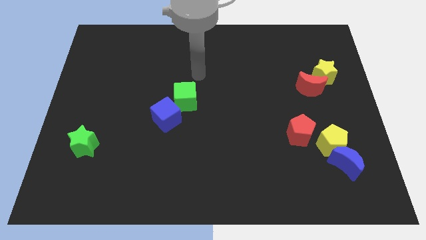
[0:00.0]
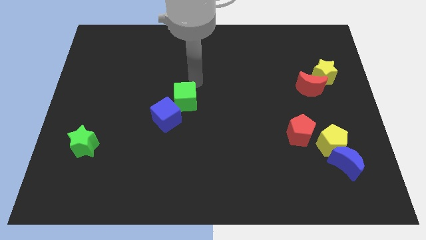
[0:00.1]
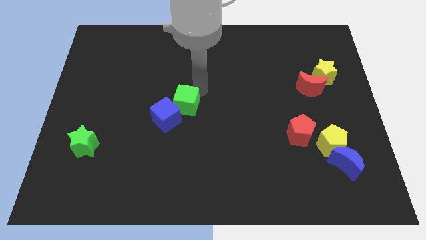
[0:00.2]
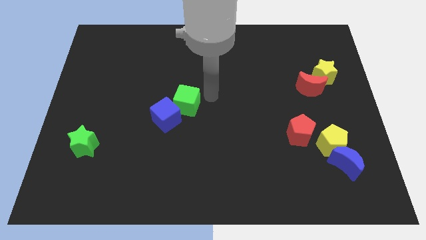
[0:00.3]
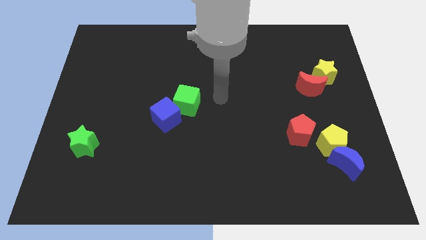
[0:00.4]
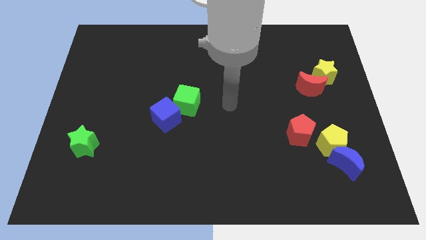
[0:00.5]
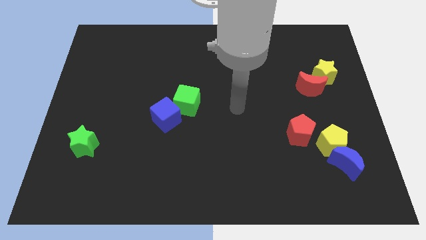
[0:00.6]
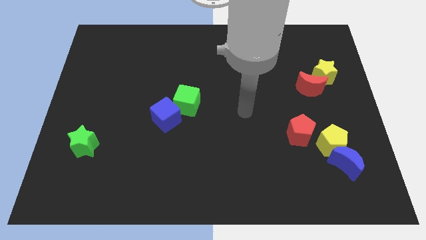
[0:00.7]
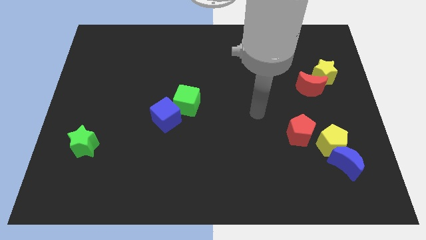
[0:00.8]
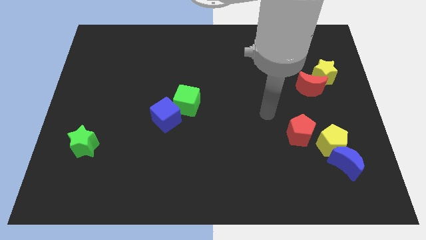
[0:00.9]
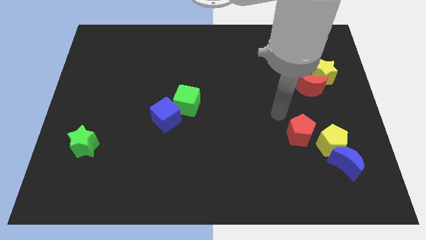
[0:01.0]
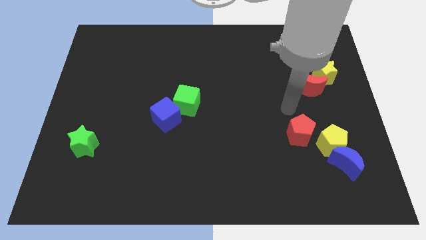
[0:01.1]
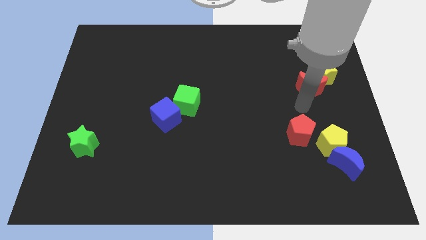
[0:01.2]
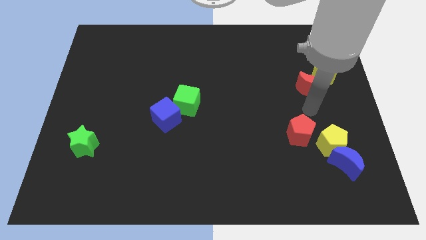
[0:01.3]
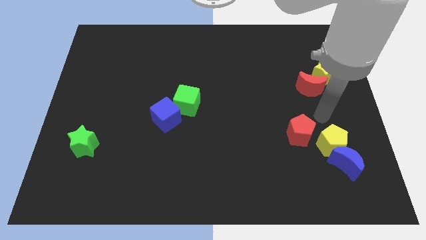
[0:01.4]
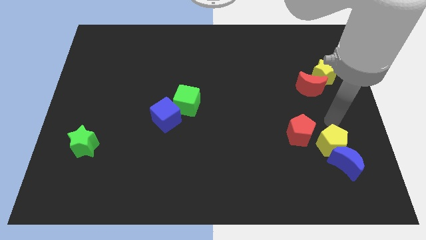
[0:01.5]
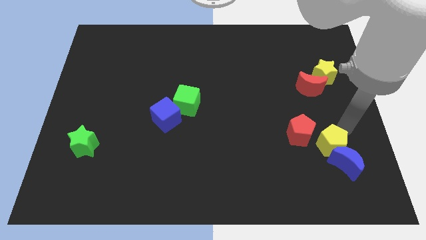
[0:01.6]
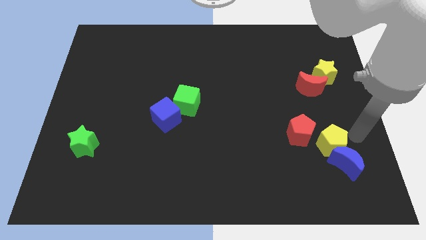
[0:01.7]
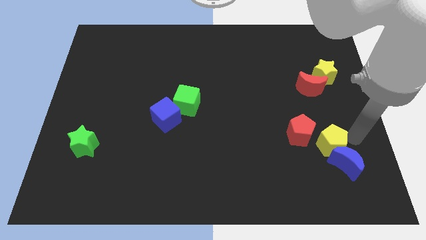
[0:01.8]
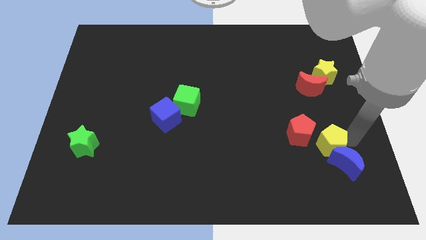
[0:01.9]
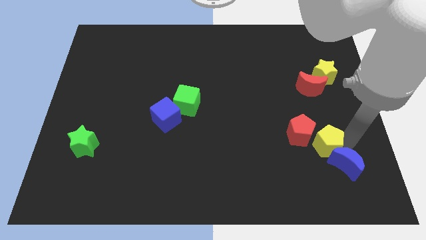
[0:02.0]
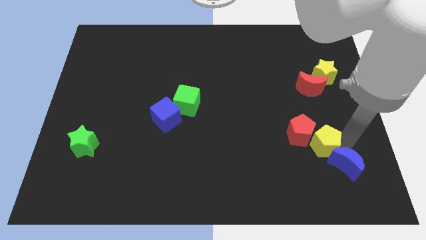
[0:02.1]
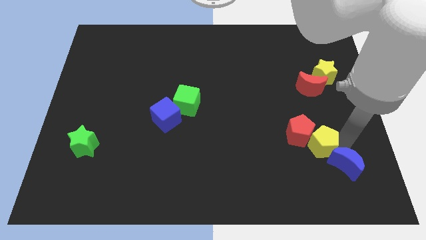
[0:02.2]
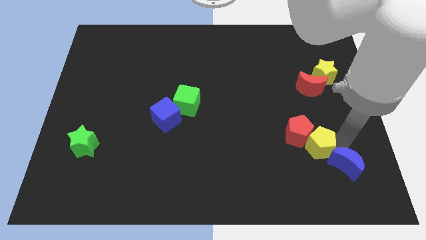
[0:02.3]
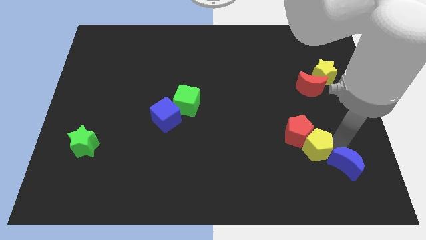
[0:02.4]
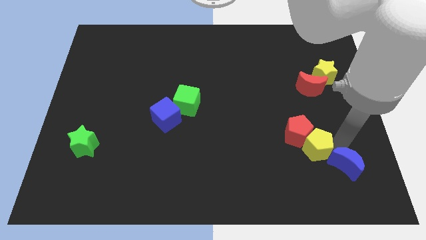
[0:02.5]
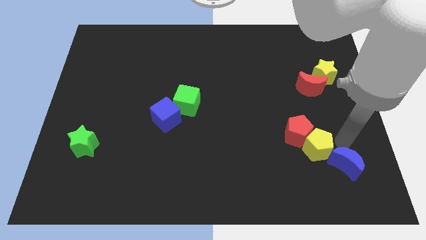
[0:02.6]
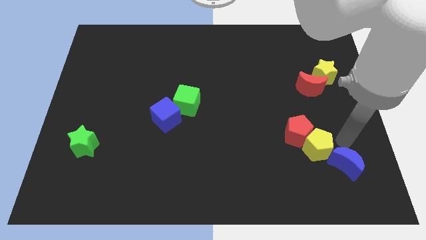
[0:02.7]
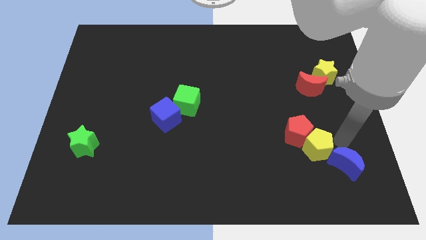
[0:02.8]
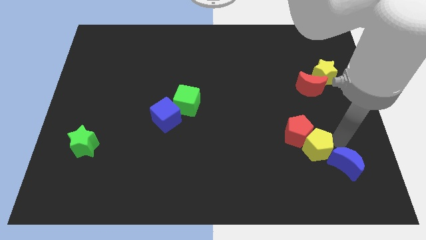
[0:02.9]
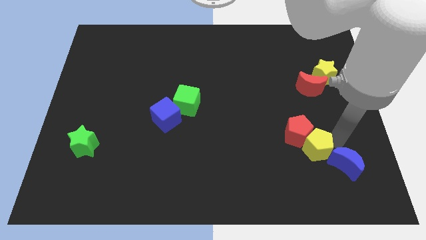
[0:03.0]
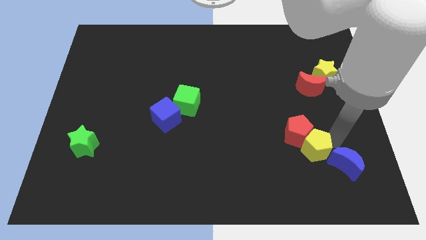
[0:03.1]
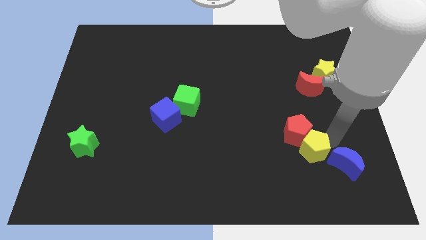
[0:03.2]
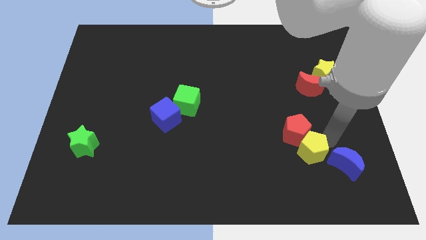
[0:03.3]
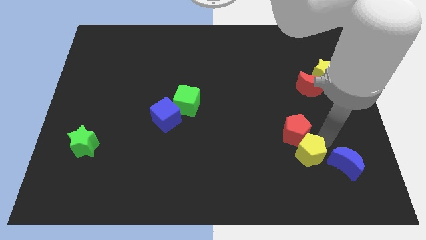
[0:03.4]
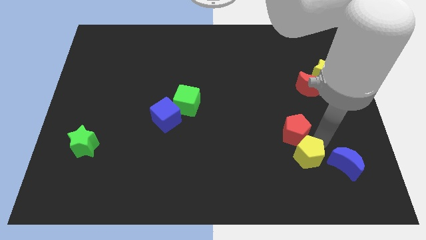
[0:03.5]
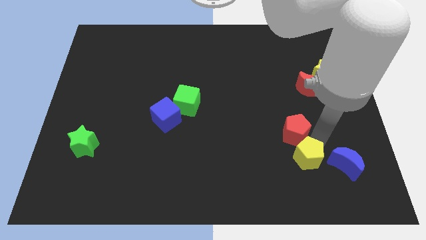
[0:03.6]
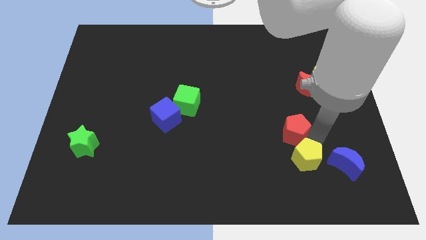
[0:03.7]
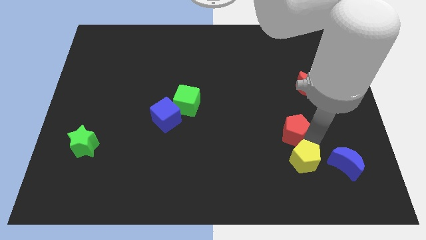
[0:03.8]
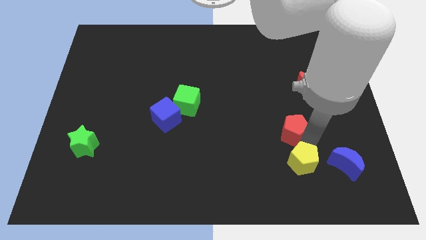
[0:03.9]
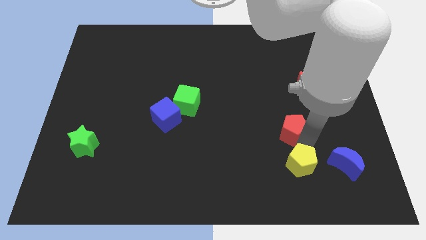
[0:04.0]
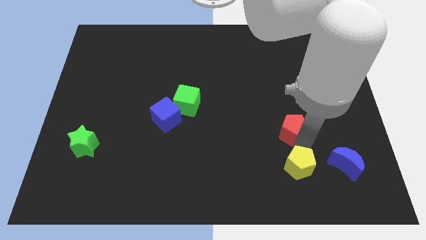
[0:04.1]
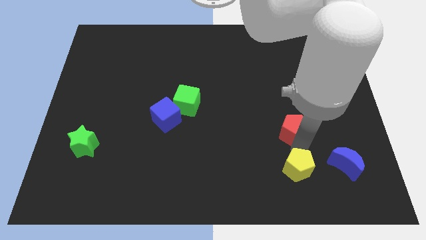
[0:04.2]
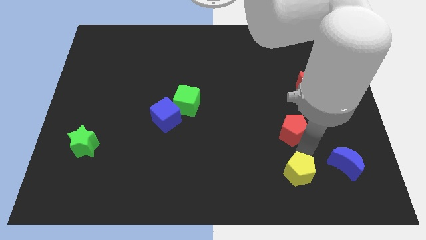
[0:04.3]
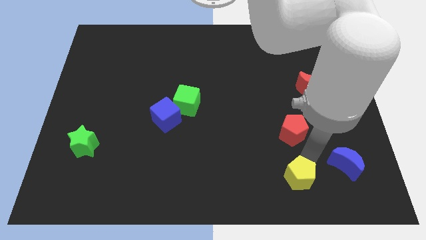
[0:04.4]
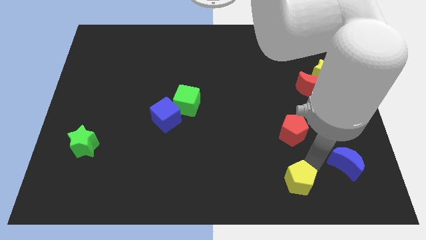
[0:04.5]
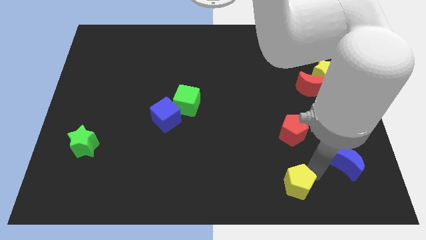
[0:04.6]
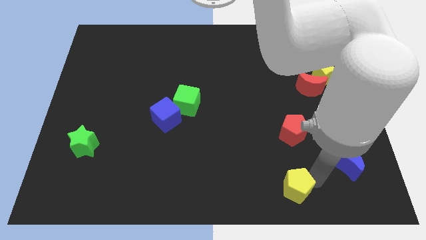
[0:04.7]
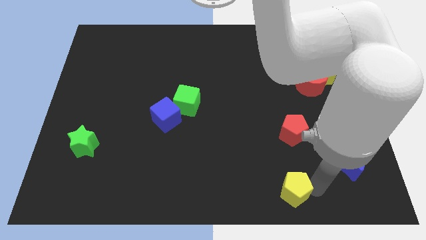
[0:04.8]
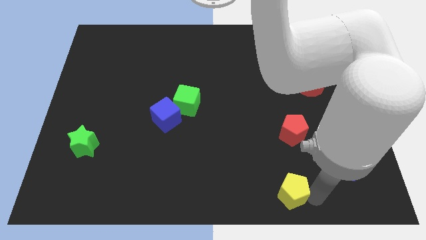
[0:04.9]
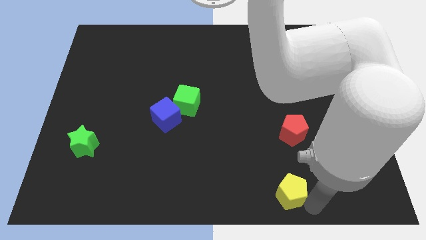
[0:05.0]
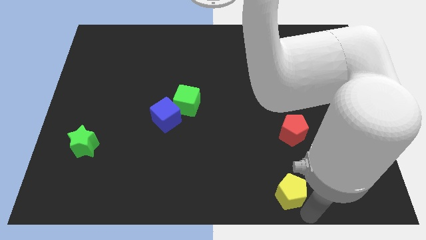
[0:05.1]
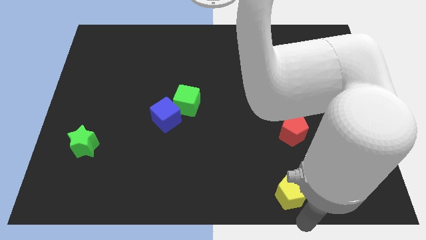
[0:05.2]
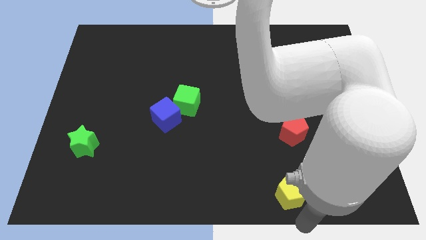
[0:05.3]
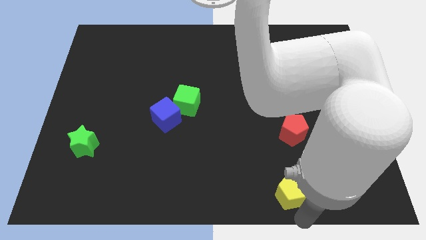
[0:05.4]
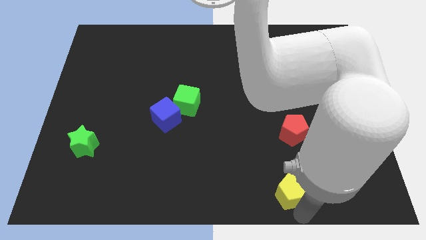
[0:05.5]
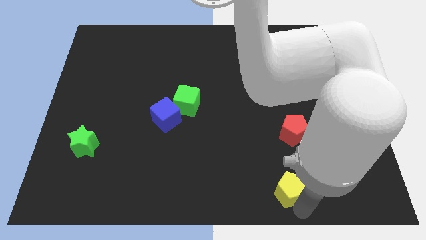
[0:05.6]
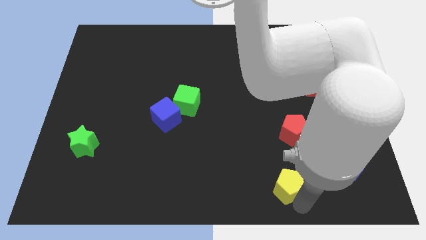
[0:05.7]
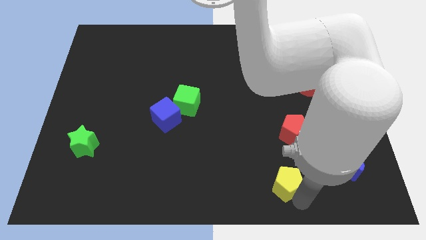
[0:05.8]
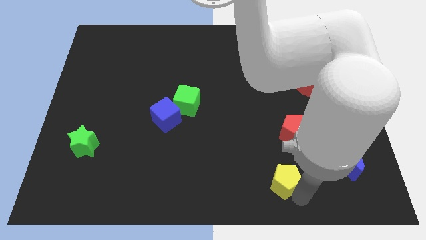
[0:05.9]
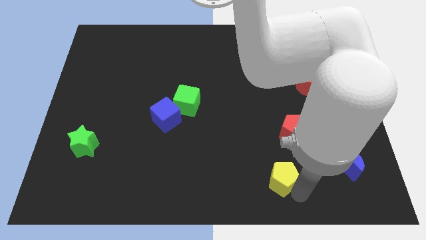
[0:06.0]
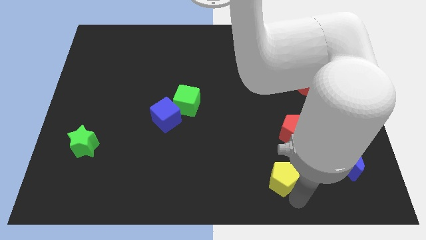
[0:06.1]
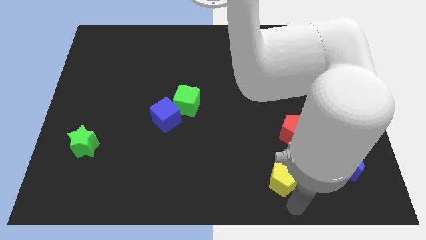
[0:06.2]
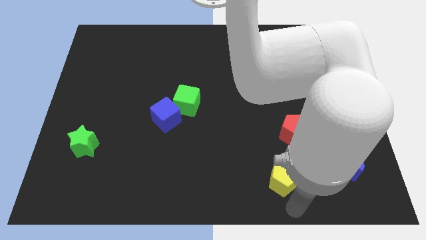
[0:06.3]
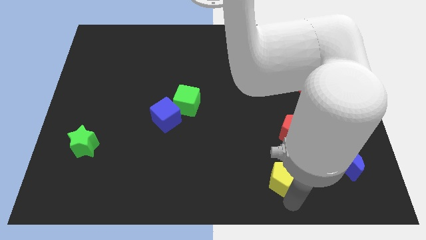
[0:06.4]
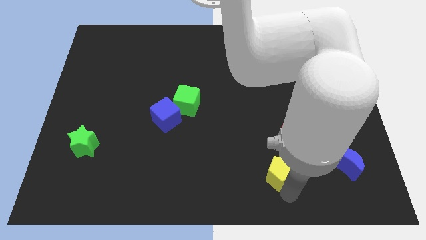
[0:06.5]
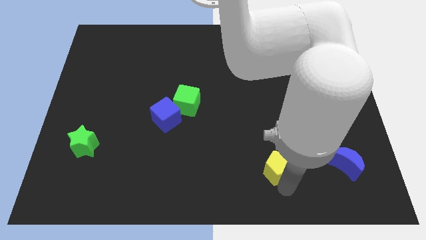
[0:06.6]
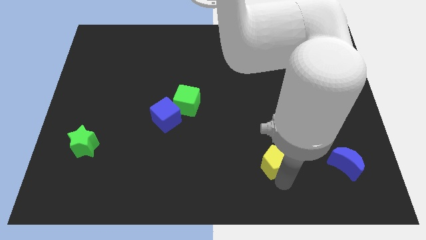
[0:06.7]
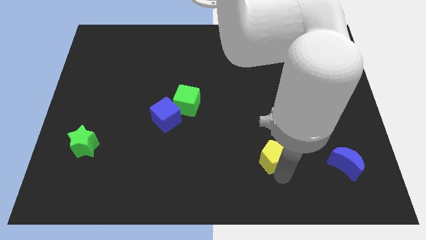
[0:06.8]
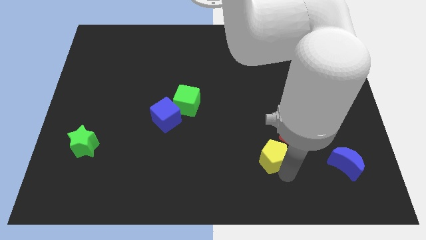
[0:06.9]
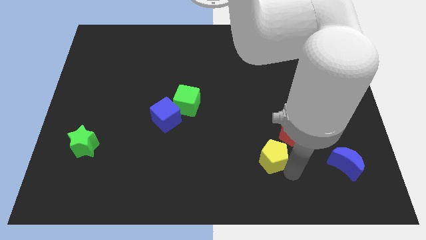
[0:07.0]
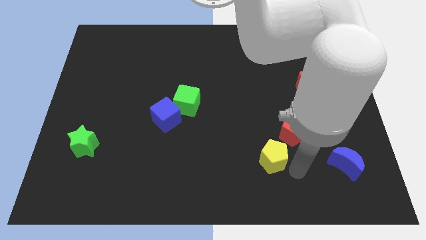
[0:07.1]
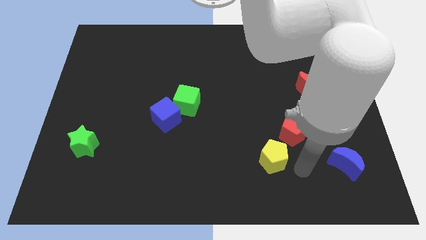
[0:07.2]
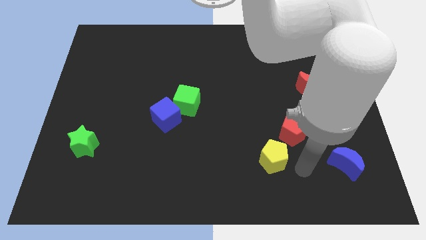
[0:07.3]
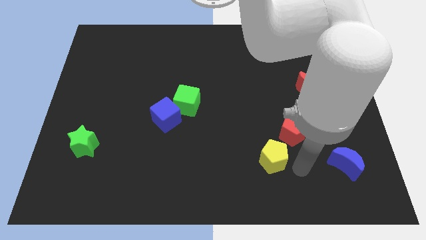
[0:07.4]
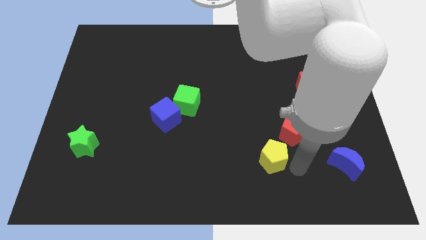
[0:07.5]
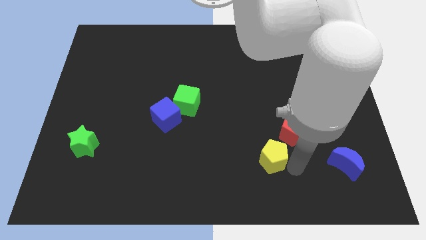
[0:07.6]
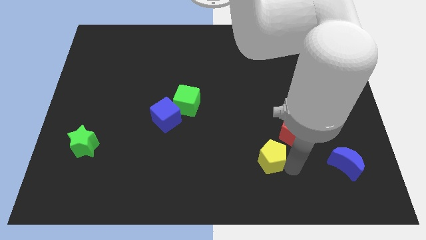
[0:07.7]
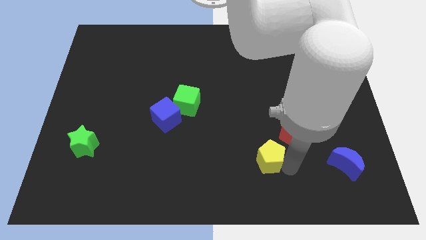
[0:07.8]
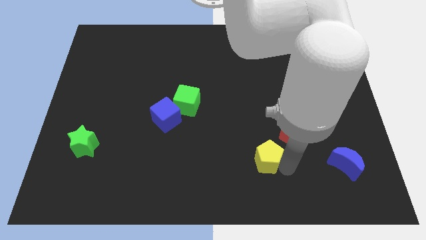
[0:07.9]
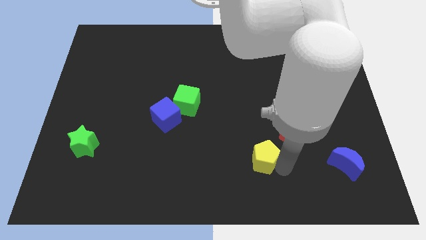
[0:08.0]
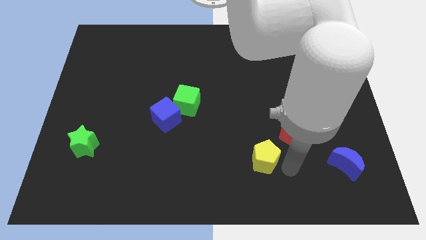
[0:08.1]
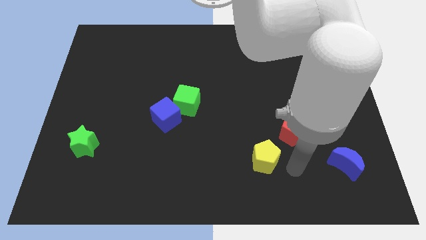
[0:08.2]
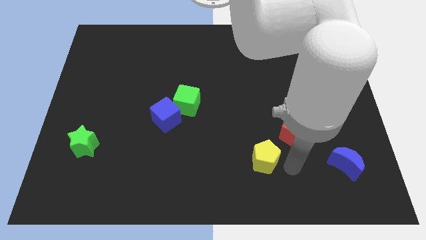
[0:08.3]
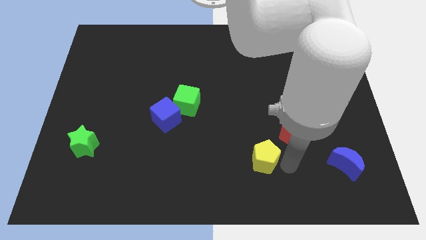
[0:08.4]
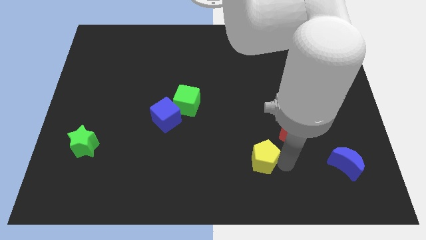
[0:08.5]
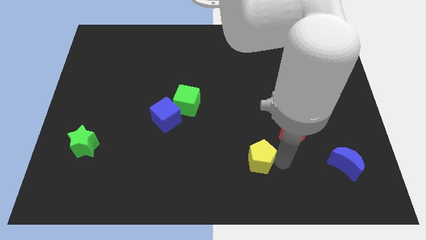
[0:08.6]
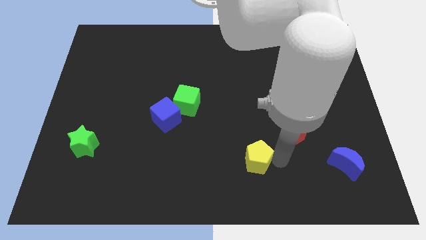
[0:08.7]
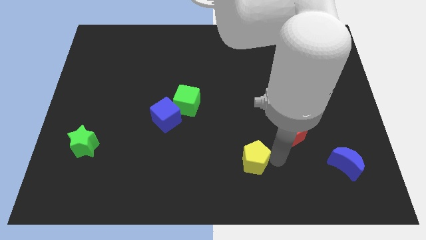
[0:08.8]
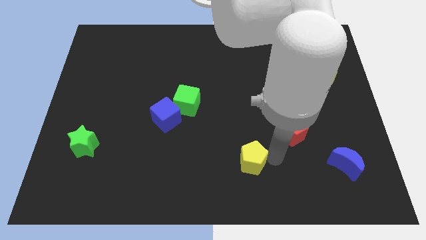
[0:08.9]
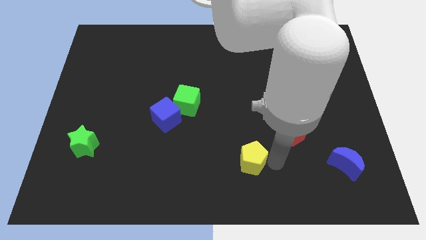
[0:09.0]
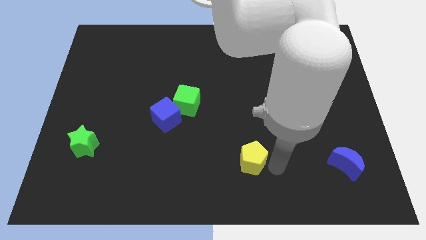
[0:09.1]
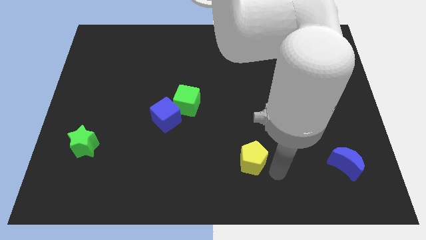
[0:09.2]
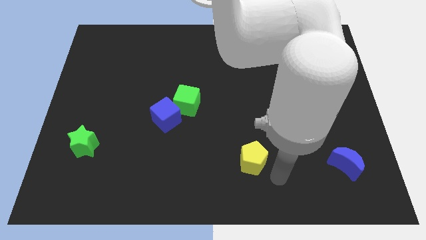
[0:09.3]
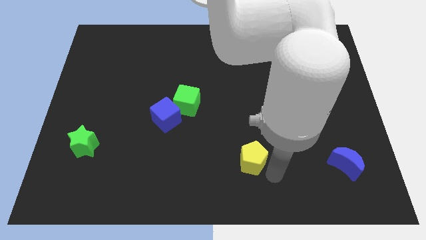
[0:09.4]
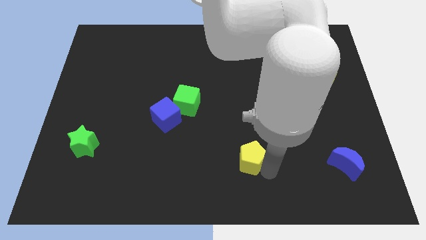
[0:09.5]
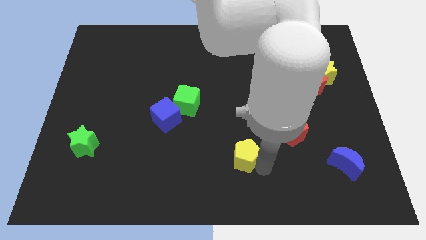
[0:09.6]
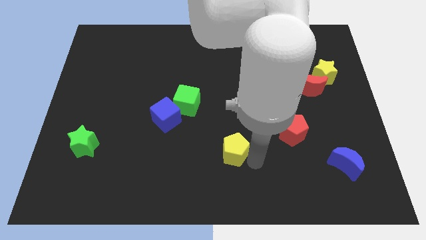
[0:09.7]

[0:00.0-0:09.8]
push the yellow pentagon to the left
